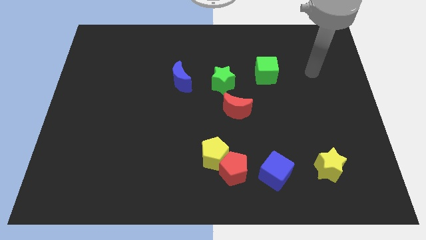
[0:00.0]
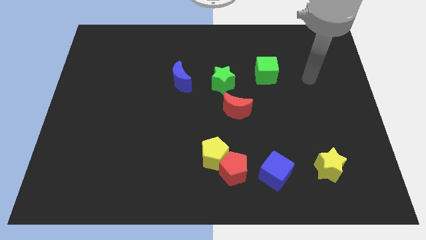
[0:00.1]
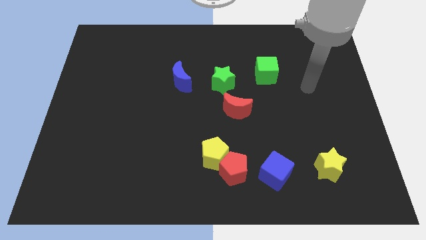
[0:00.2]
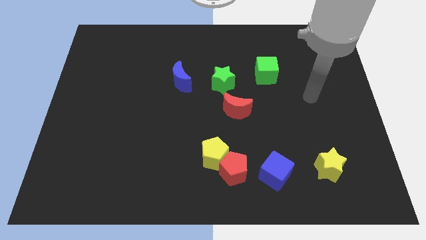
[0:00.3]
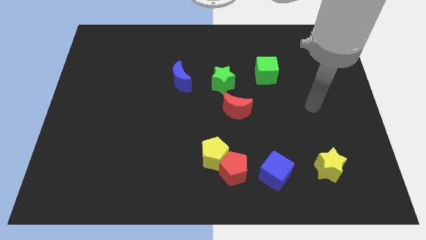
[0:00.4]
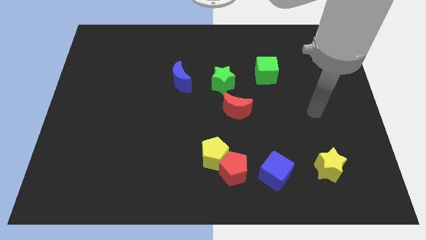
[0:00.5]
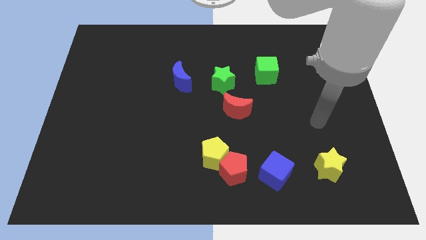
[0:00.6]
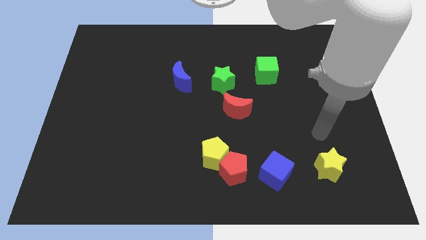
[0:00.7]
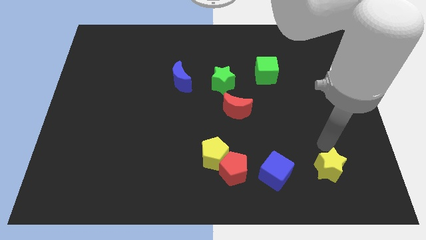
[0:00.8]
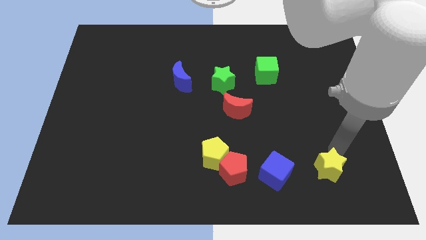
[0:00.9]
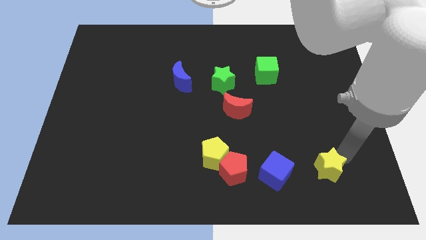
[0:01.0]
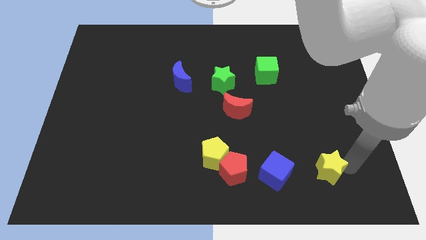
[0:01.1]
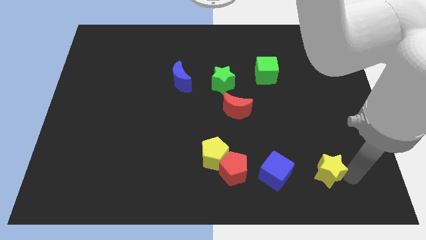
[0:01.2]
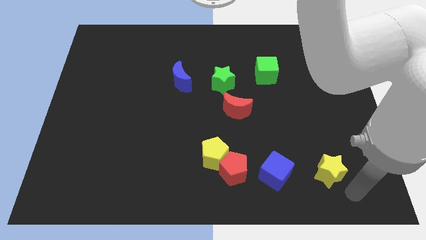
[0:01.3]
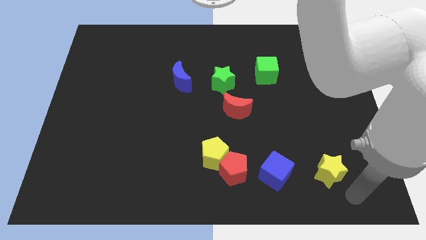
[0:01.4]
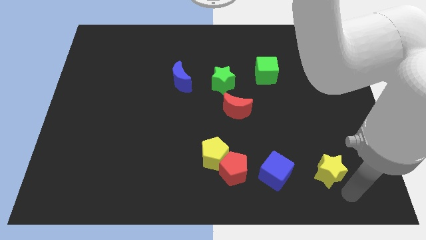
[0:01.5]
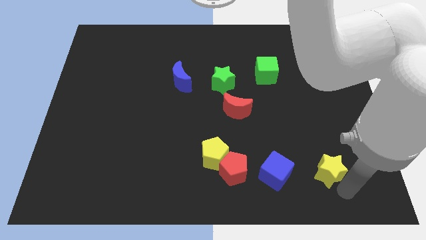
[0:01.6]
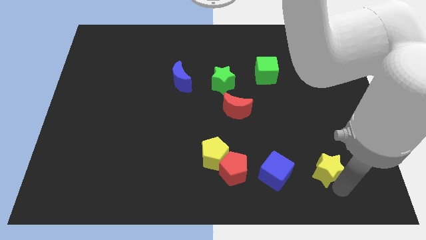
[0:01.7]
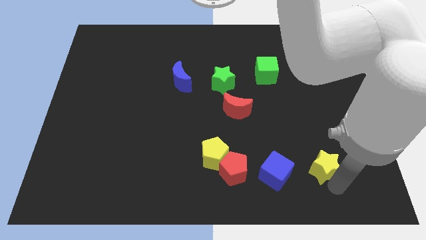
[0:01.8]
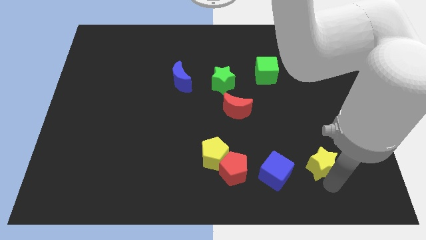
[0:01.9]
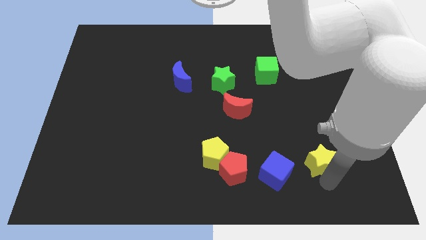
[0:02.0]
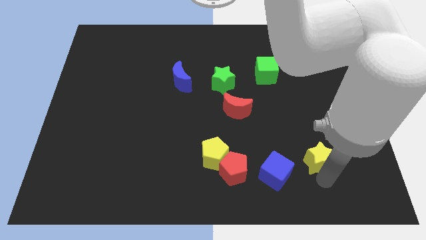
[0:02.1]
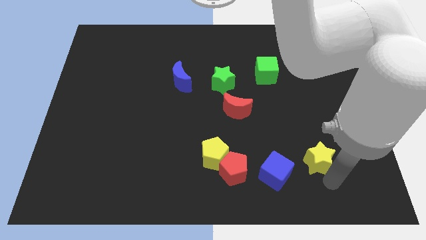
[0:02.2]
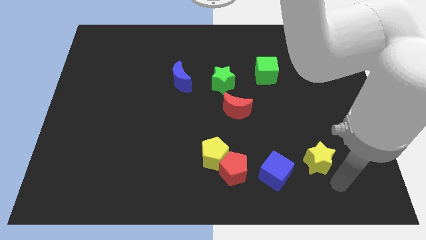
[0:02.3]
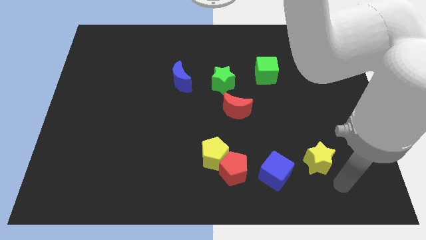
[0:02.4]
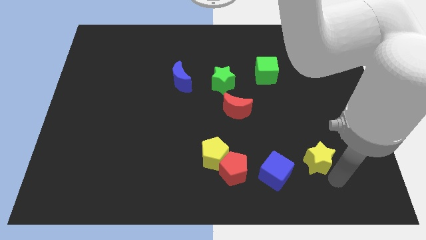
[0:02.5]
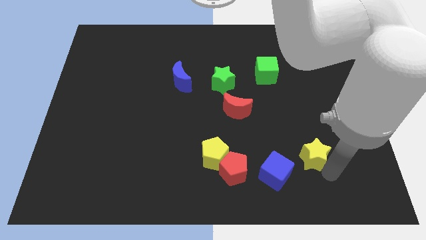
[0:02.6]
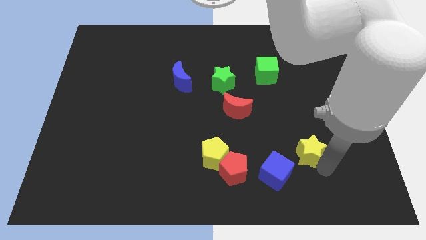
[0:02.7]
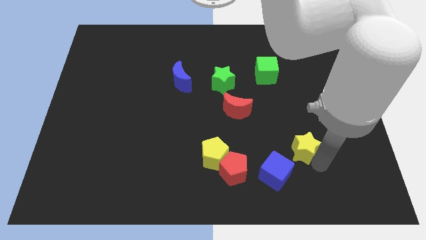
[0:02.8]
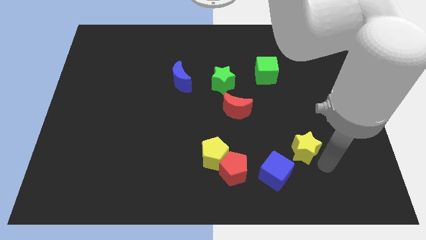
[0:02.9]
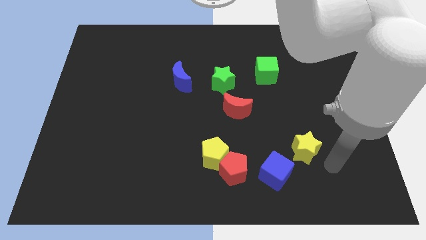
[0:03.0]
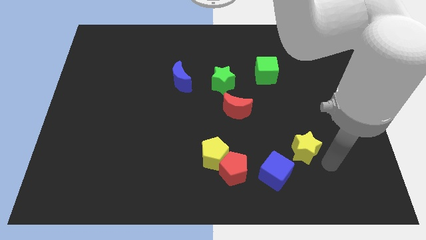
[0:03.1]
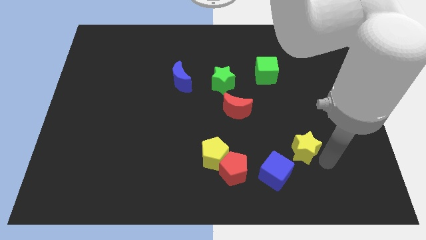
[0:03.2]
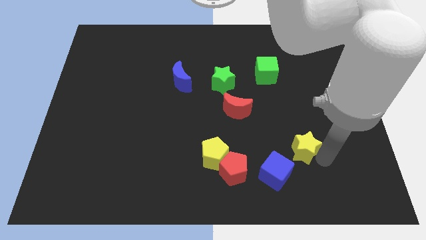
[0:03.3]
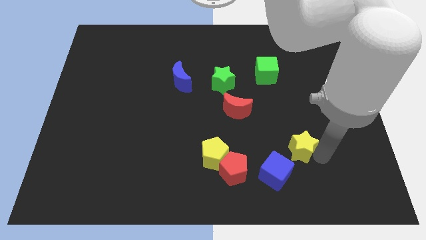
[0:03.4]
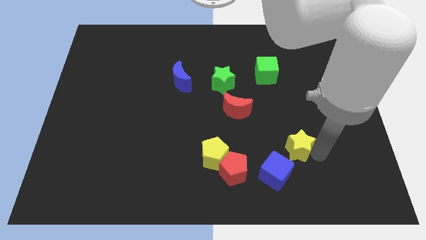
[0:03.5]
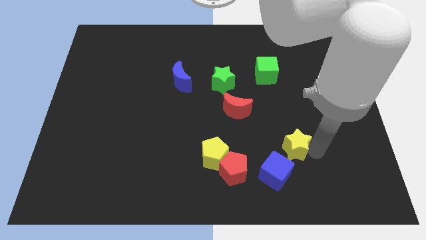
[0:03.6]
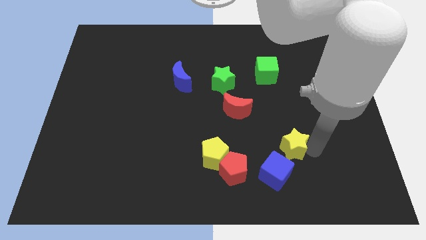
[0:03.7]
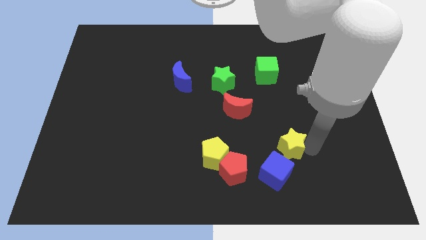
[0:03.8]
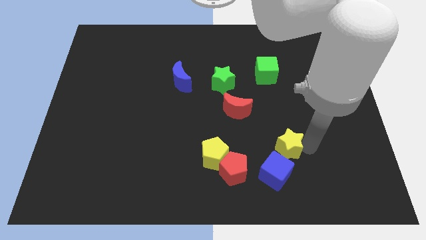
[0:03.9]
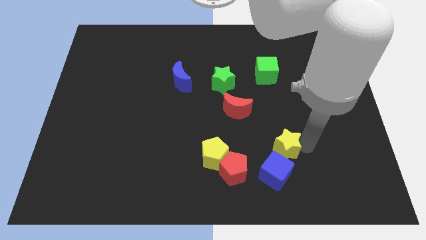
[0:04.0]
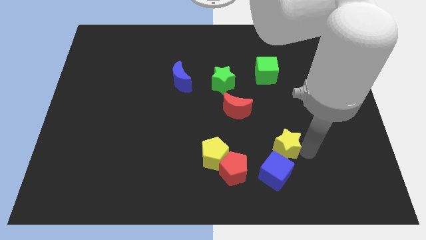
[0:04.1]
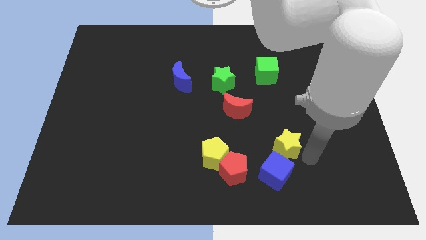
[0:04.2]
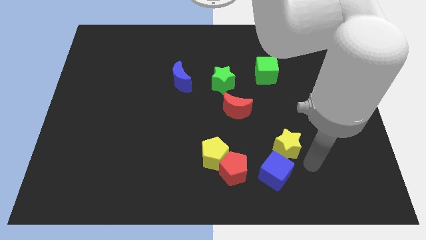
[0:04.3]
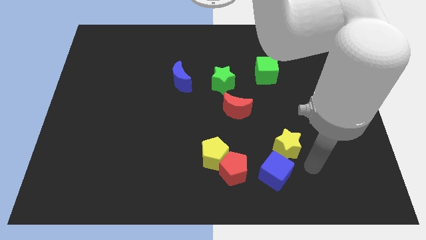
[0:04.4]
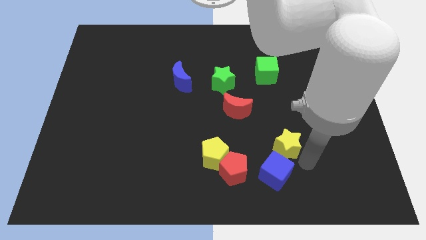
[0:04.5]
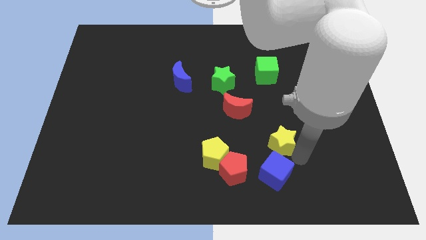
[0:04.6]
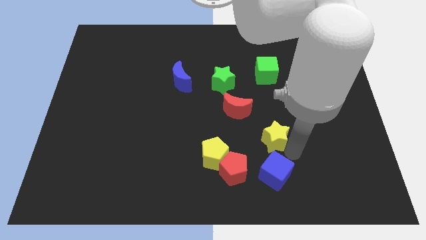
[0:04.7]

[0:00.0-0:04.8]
move the yellow star to the bottom right of the red moon

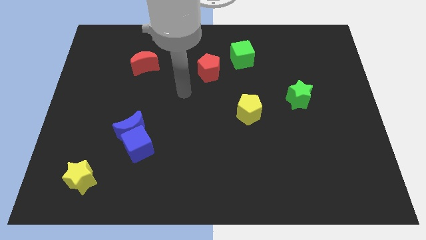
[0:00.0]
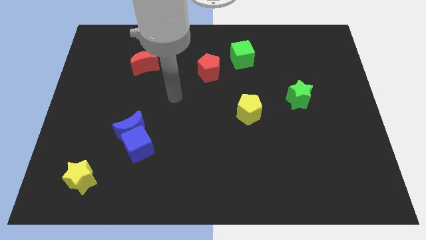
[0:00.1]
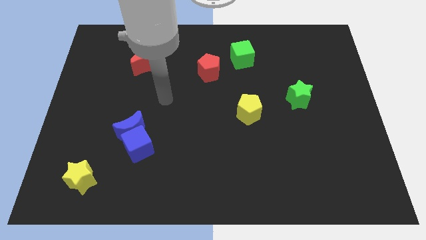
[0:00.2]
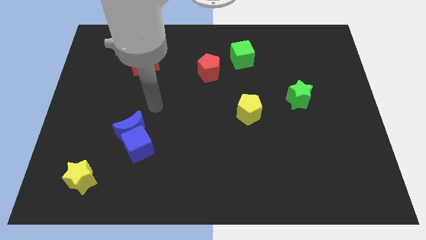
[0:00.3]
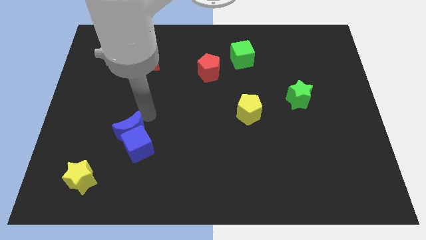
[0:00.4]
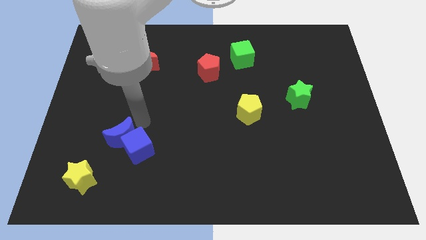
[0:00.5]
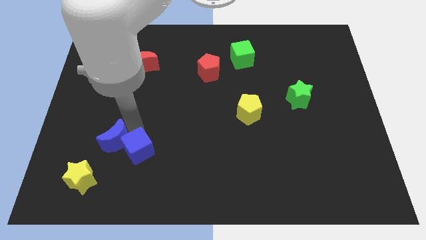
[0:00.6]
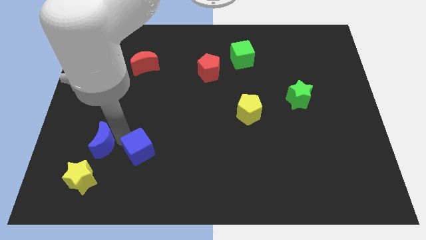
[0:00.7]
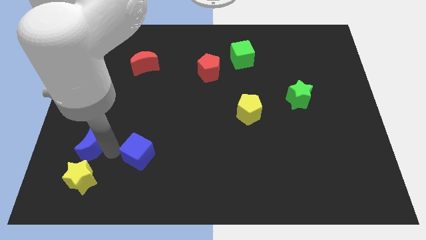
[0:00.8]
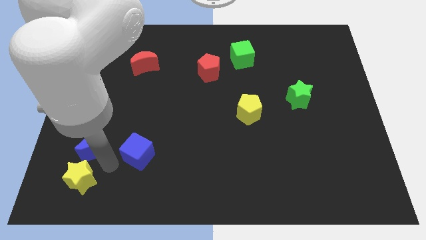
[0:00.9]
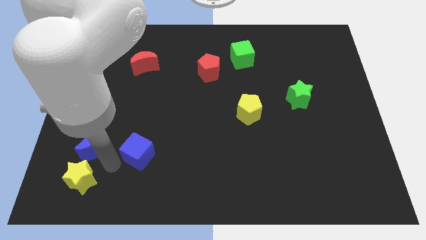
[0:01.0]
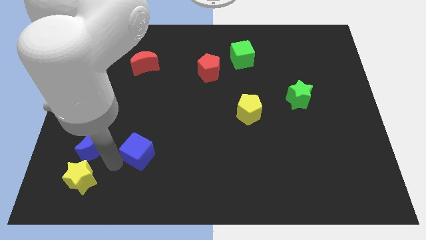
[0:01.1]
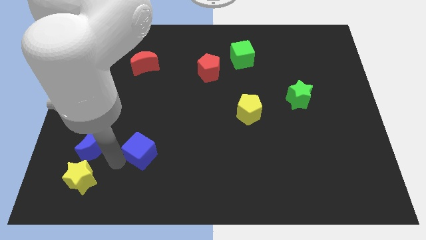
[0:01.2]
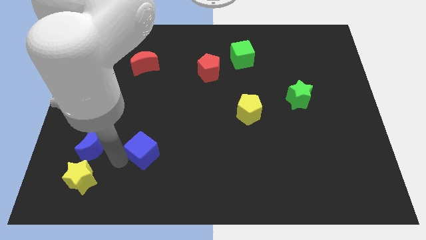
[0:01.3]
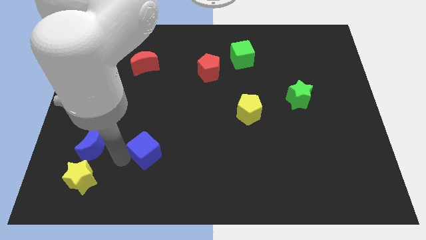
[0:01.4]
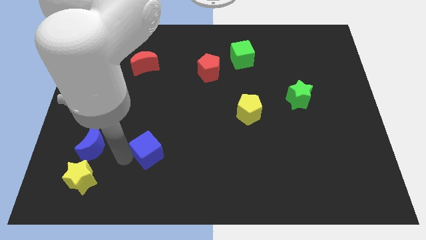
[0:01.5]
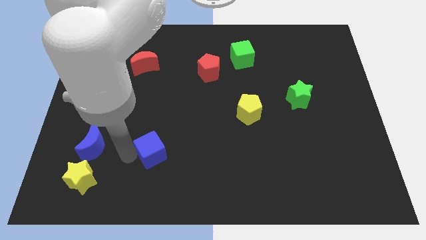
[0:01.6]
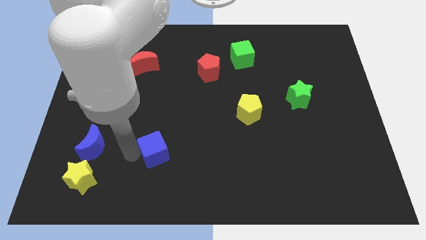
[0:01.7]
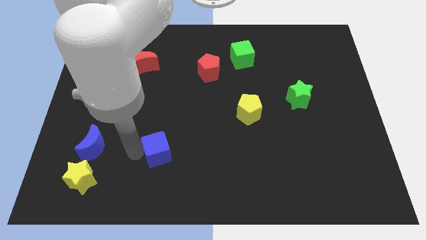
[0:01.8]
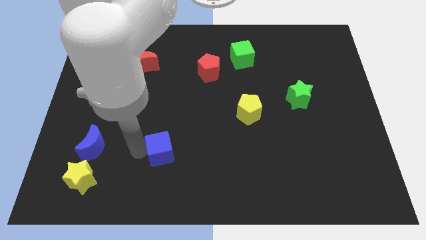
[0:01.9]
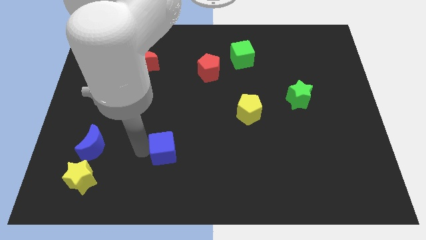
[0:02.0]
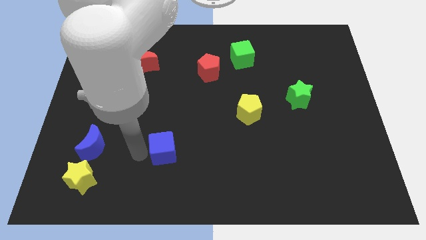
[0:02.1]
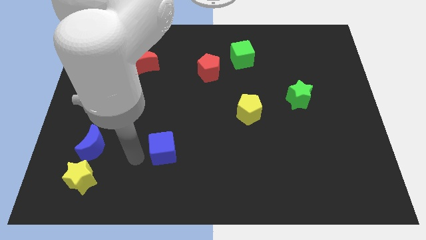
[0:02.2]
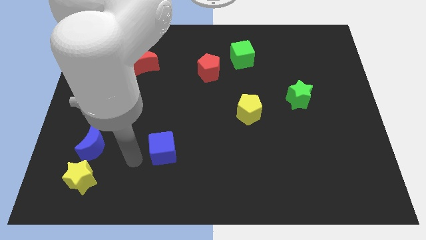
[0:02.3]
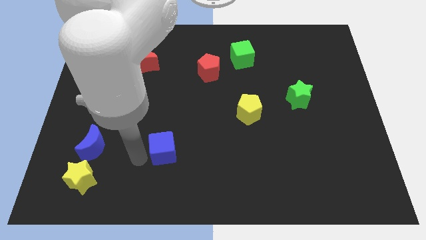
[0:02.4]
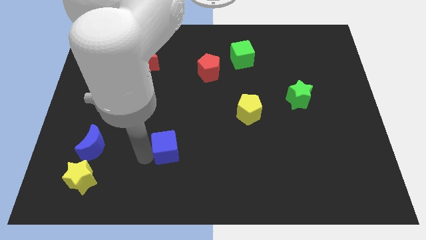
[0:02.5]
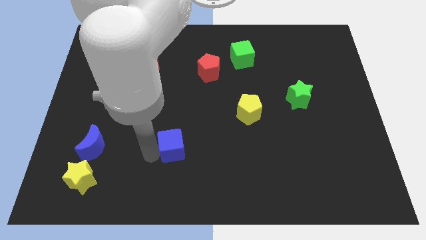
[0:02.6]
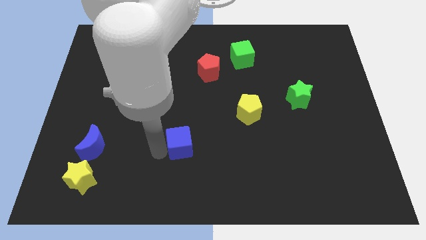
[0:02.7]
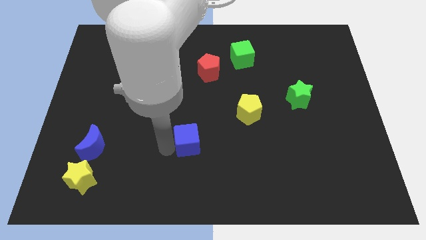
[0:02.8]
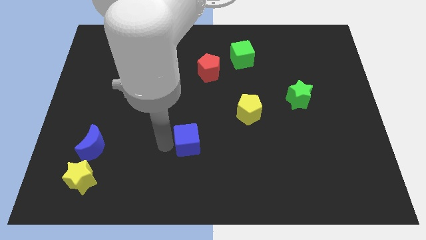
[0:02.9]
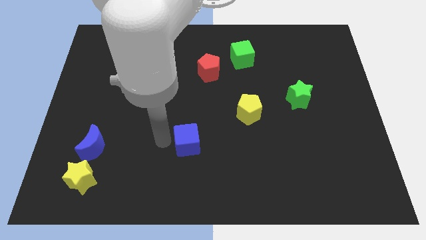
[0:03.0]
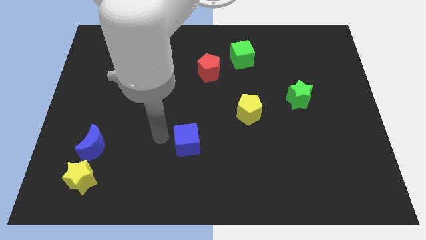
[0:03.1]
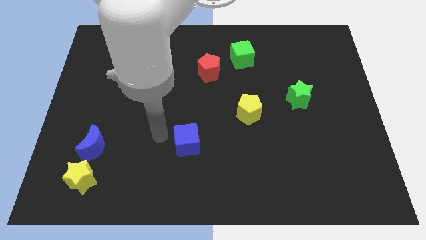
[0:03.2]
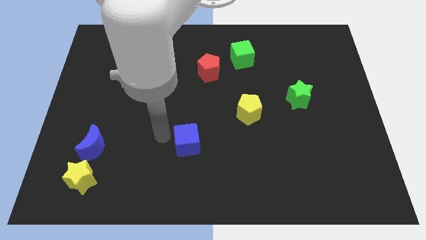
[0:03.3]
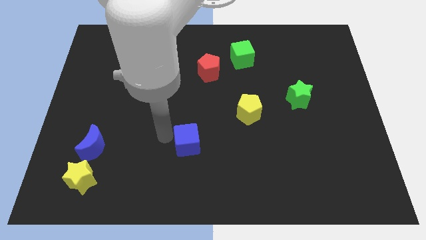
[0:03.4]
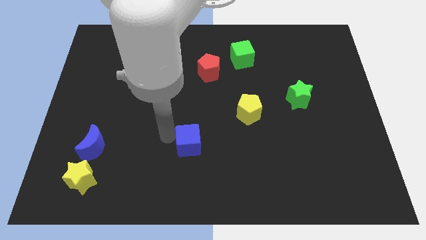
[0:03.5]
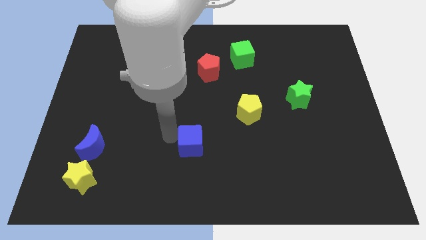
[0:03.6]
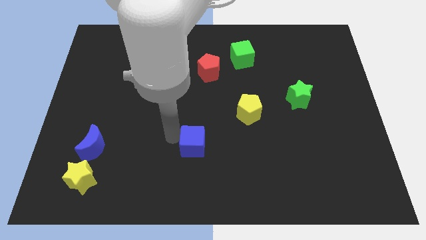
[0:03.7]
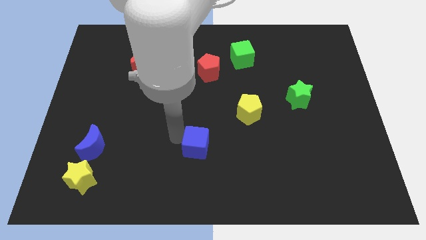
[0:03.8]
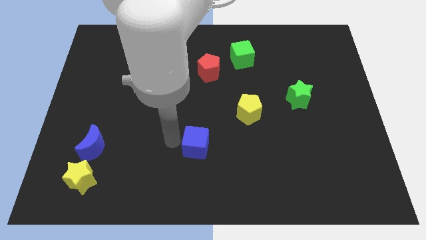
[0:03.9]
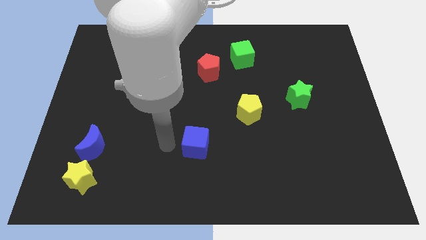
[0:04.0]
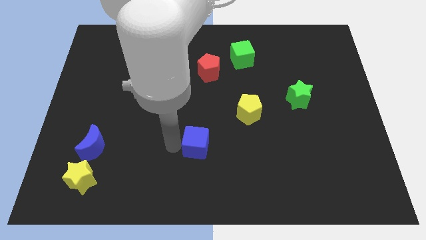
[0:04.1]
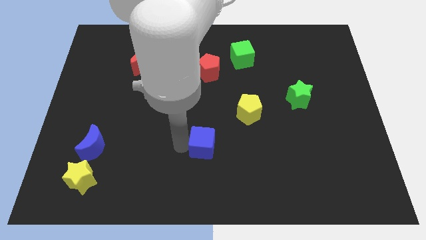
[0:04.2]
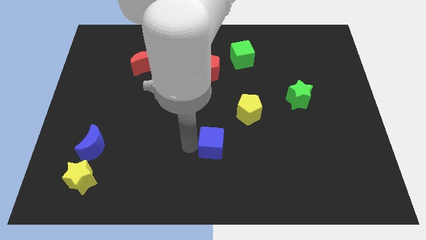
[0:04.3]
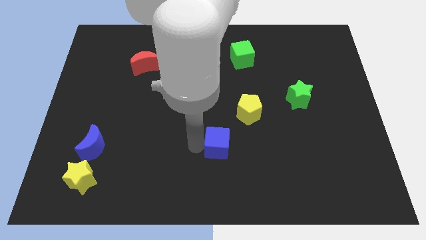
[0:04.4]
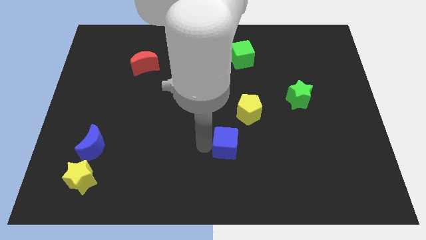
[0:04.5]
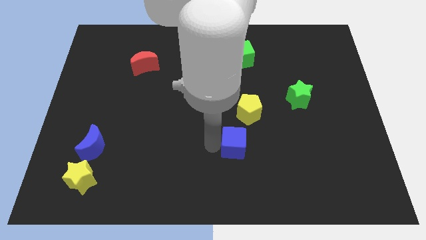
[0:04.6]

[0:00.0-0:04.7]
put the blue cube to the bottom of the yellow pentagon
